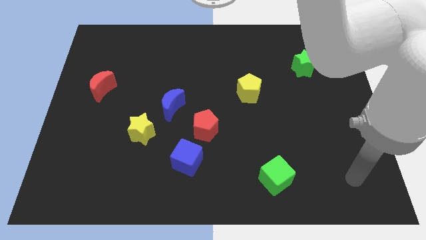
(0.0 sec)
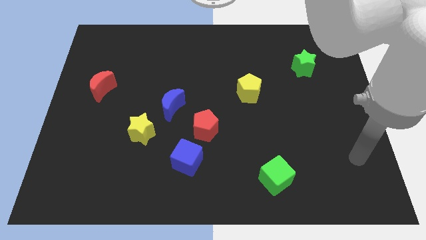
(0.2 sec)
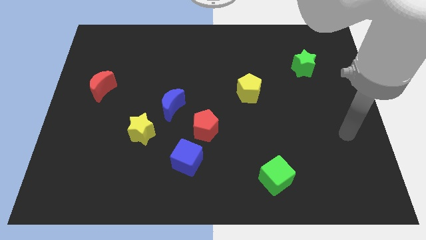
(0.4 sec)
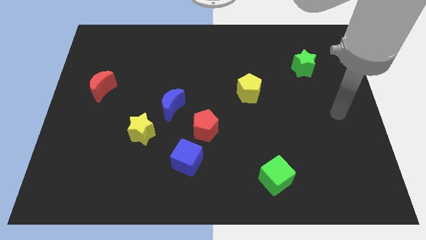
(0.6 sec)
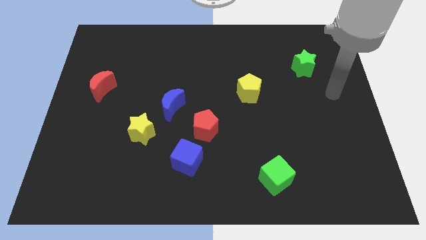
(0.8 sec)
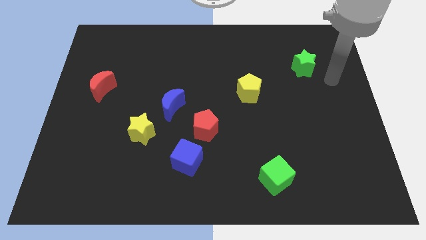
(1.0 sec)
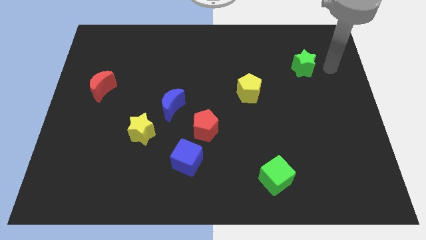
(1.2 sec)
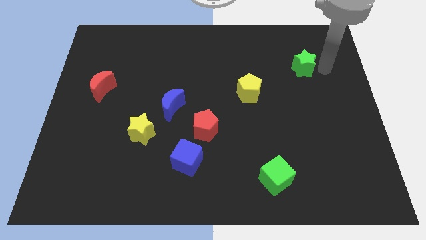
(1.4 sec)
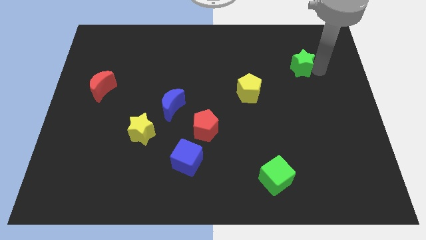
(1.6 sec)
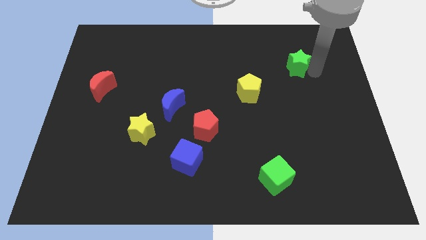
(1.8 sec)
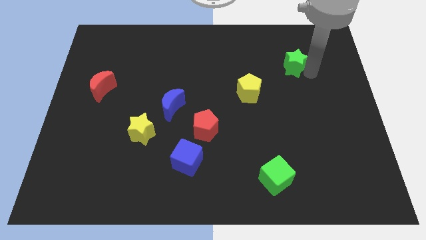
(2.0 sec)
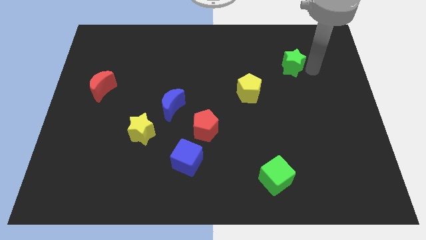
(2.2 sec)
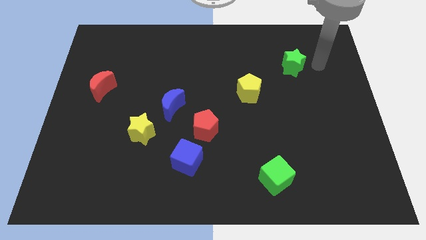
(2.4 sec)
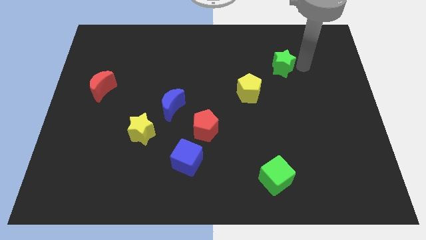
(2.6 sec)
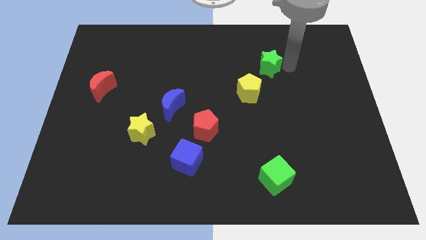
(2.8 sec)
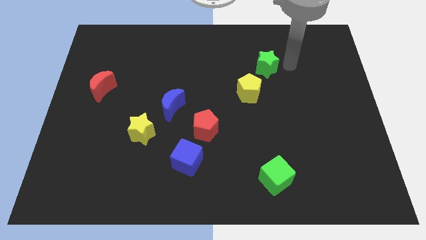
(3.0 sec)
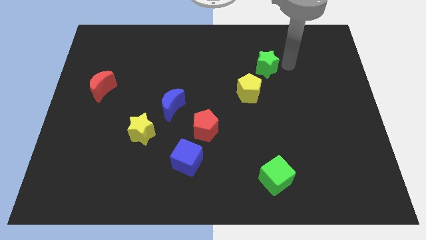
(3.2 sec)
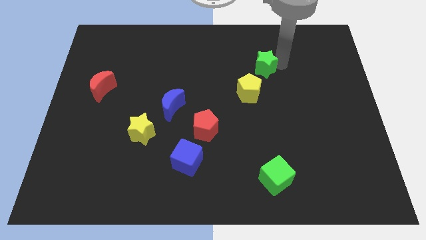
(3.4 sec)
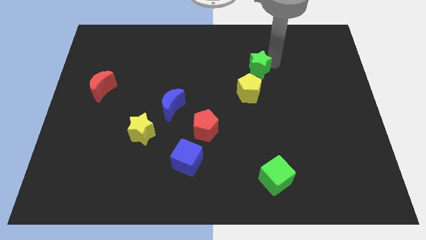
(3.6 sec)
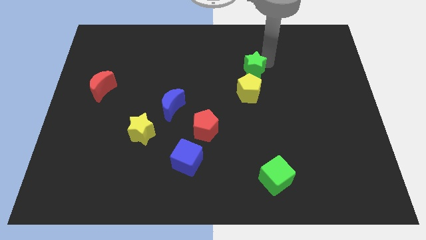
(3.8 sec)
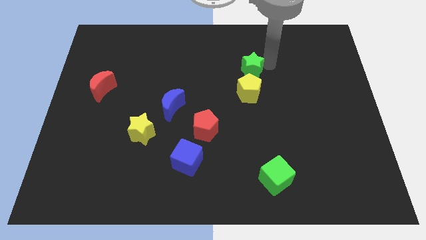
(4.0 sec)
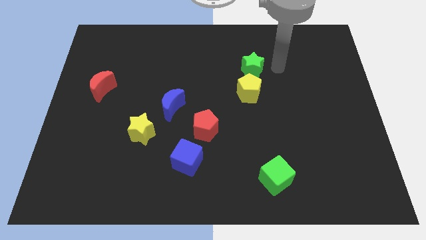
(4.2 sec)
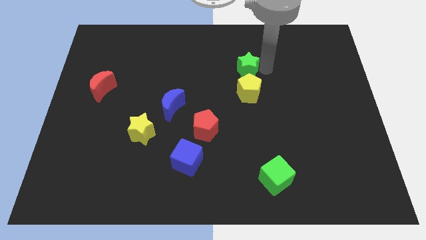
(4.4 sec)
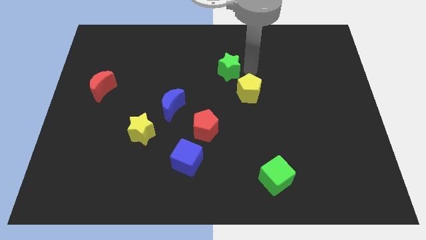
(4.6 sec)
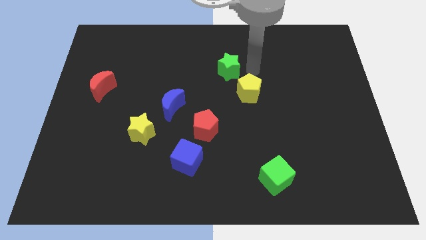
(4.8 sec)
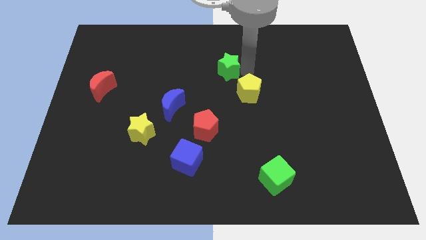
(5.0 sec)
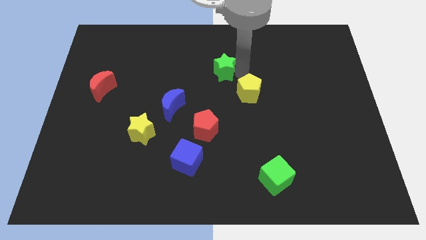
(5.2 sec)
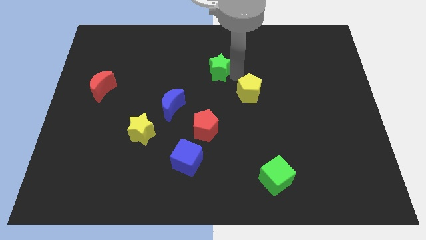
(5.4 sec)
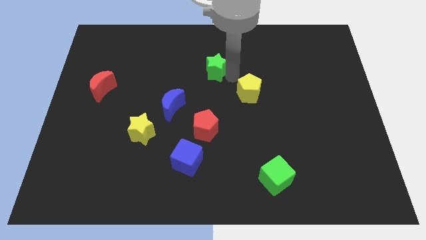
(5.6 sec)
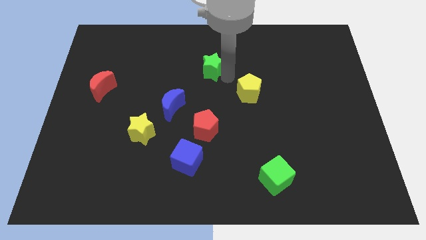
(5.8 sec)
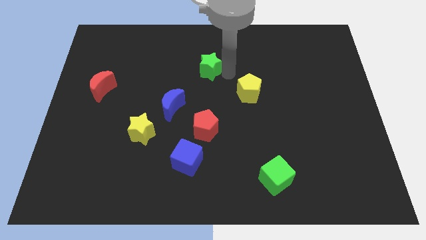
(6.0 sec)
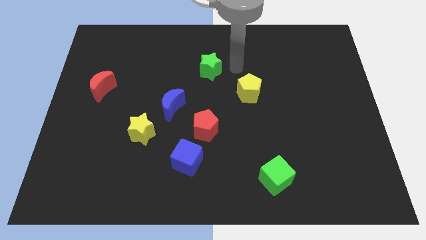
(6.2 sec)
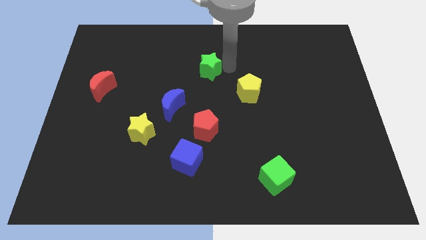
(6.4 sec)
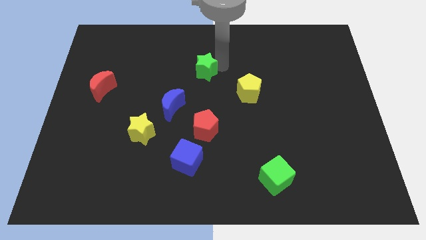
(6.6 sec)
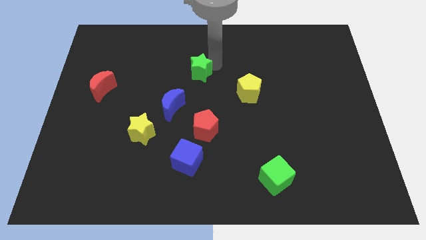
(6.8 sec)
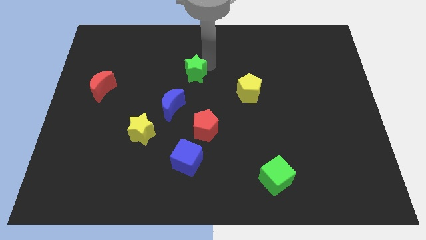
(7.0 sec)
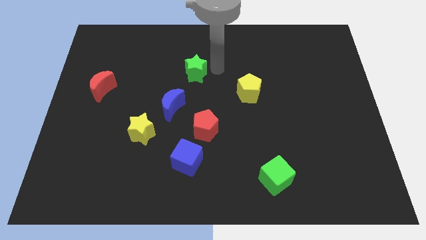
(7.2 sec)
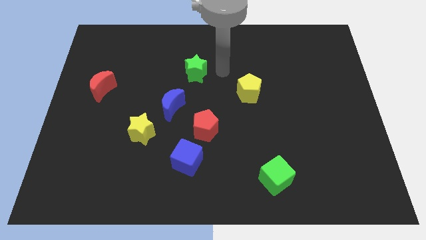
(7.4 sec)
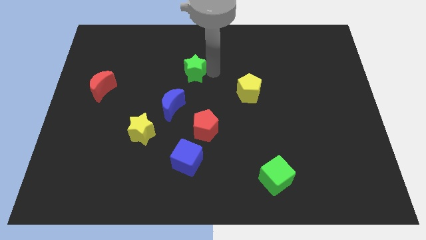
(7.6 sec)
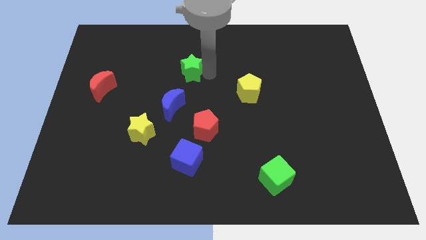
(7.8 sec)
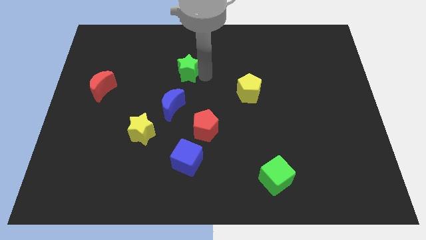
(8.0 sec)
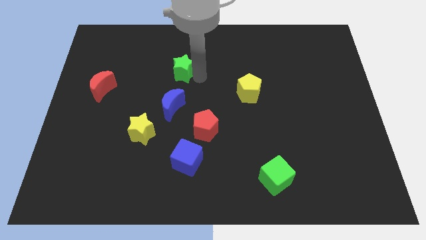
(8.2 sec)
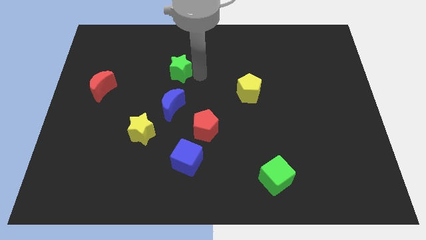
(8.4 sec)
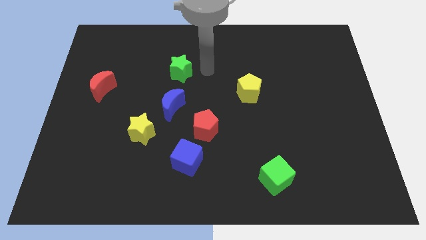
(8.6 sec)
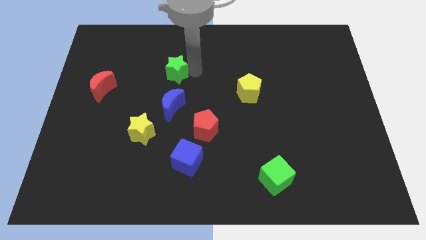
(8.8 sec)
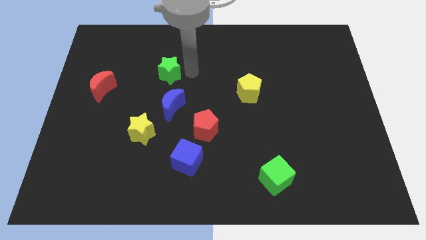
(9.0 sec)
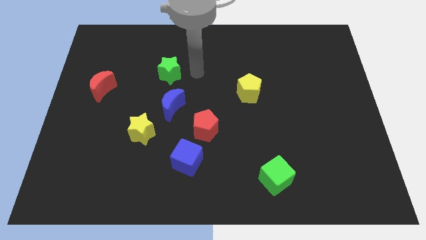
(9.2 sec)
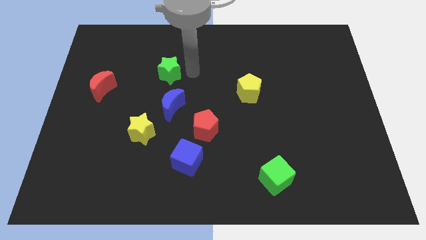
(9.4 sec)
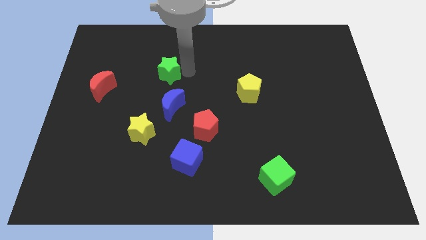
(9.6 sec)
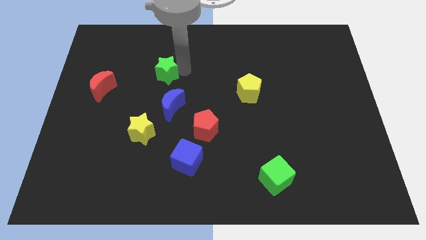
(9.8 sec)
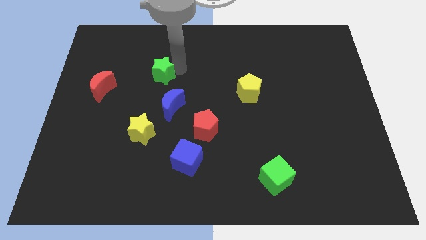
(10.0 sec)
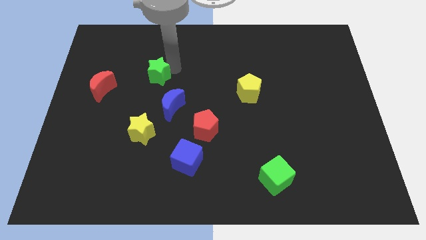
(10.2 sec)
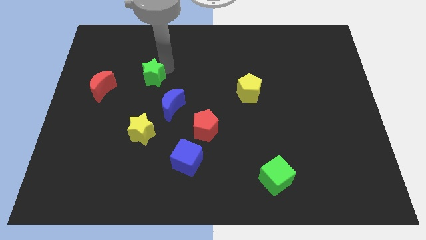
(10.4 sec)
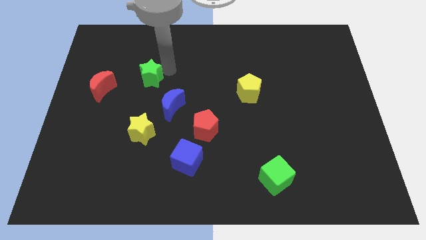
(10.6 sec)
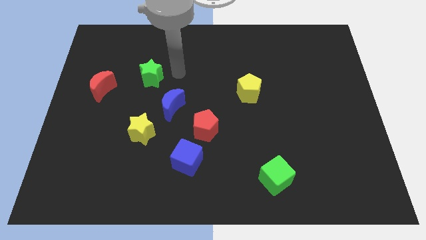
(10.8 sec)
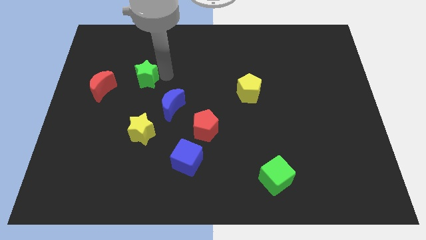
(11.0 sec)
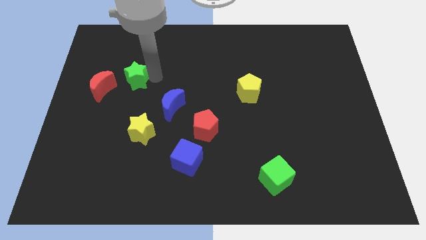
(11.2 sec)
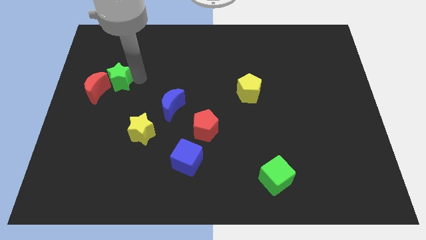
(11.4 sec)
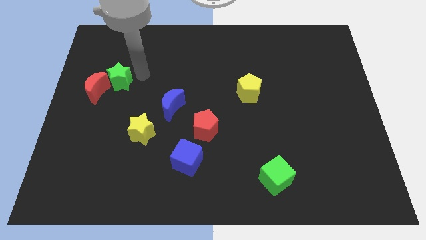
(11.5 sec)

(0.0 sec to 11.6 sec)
slide the green star to the red moon

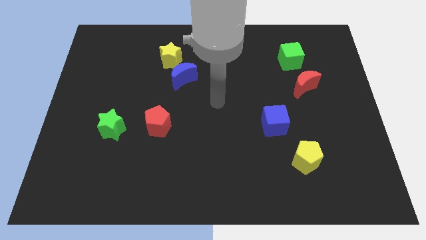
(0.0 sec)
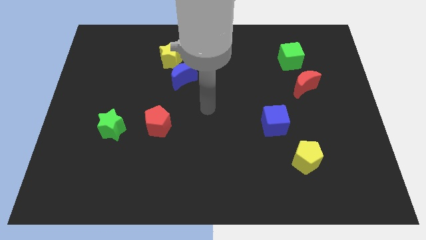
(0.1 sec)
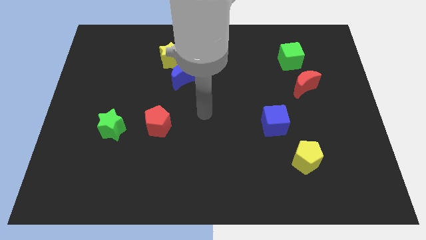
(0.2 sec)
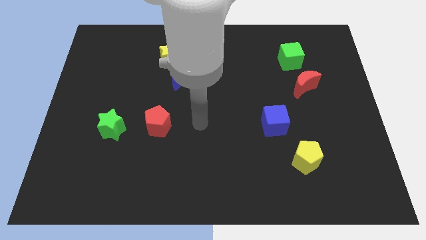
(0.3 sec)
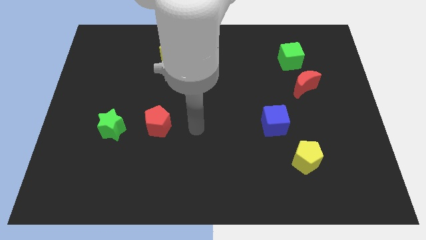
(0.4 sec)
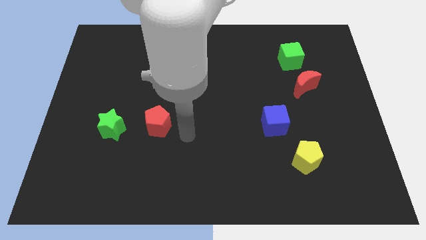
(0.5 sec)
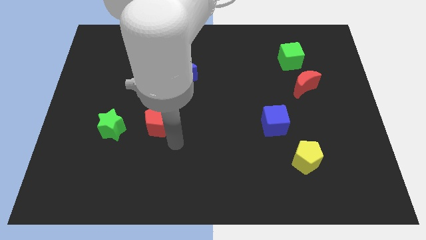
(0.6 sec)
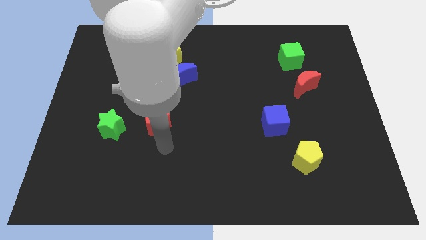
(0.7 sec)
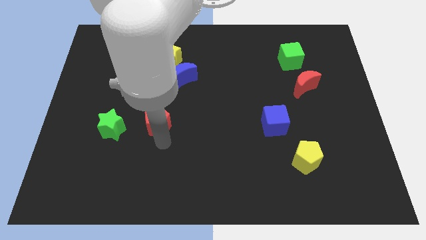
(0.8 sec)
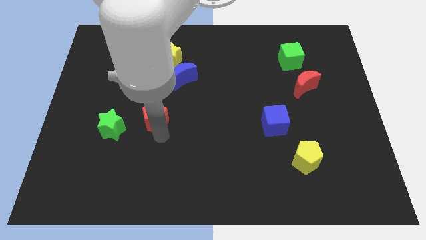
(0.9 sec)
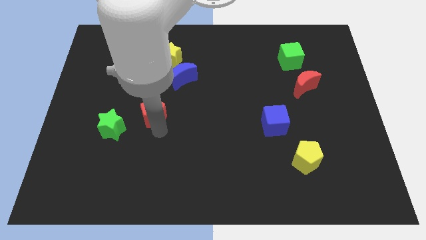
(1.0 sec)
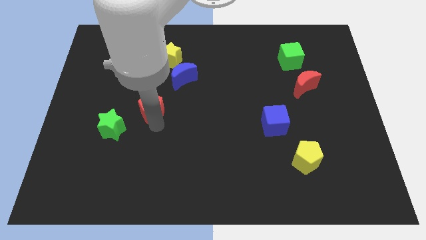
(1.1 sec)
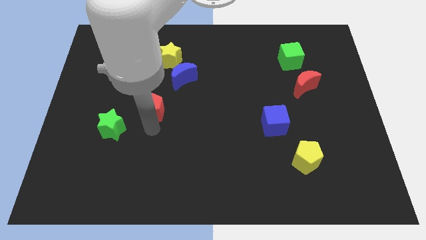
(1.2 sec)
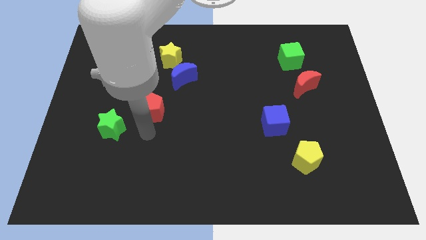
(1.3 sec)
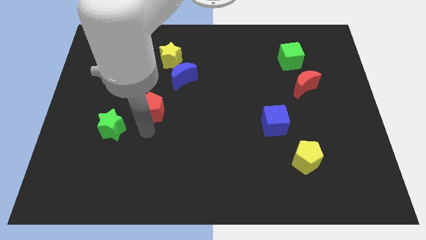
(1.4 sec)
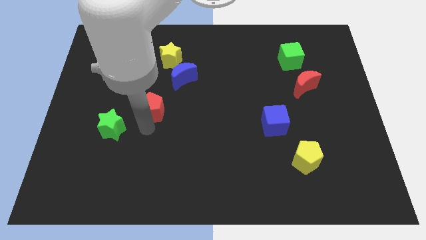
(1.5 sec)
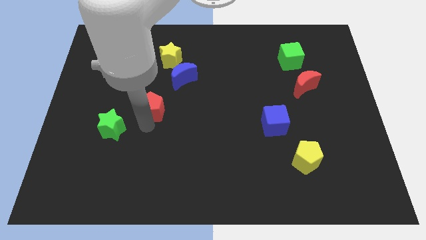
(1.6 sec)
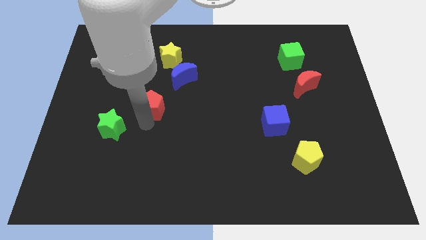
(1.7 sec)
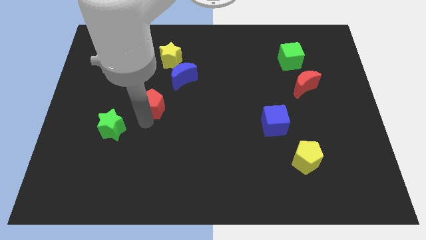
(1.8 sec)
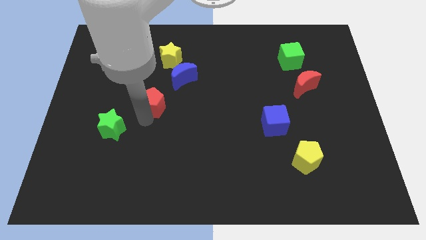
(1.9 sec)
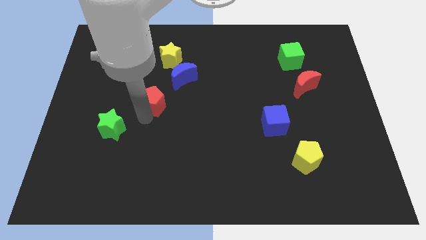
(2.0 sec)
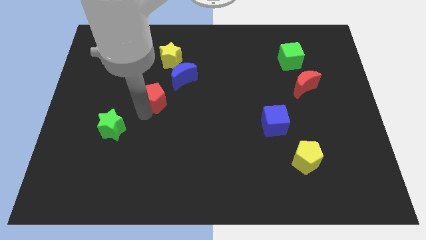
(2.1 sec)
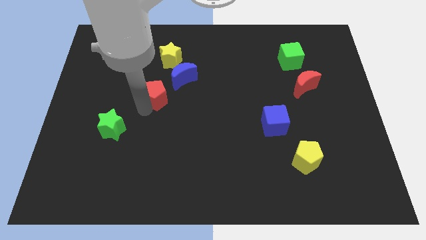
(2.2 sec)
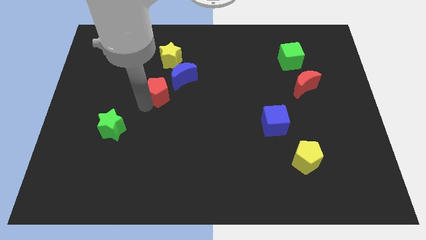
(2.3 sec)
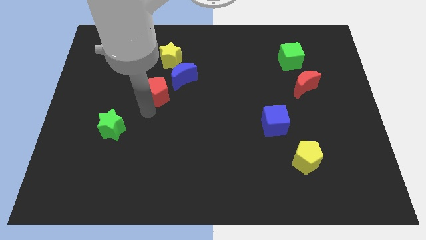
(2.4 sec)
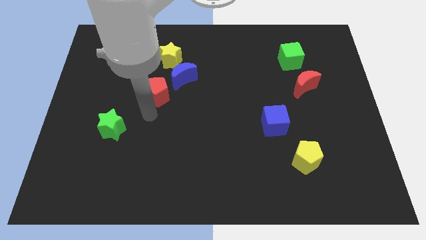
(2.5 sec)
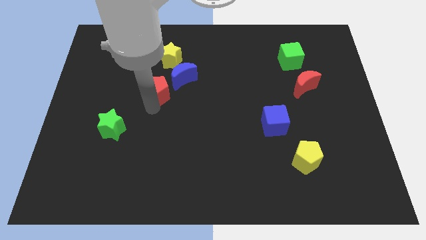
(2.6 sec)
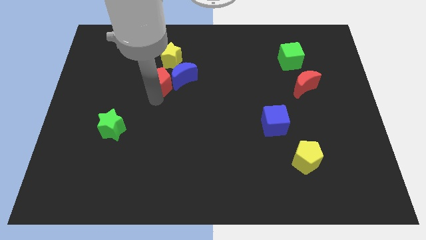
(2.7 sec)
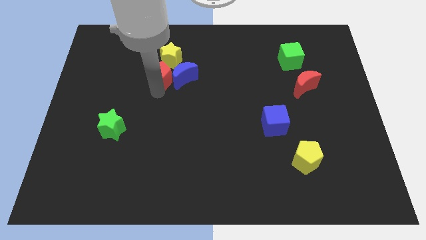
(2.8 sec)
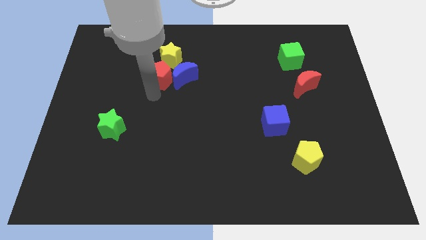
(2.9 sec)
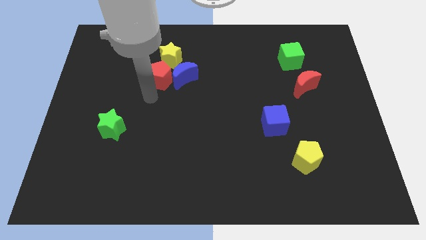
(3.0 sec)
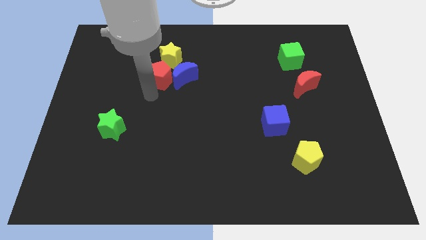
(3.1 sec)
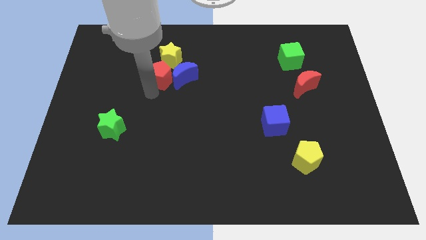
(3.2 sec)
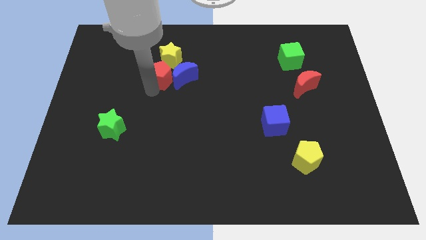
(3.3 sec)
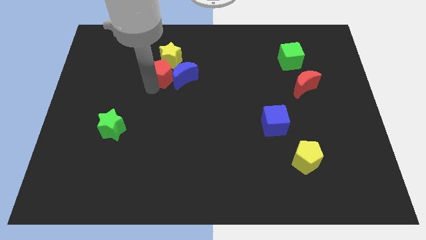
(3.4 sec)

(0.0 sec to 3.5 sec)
push the red pentagon towards the yellow star
